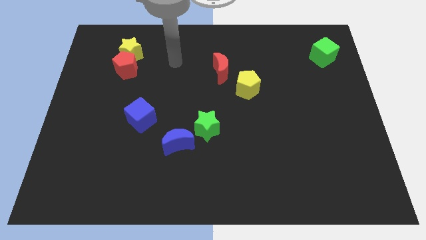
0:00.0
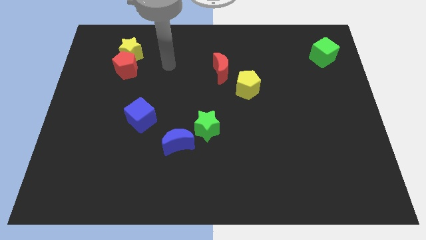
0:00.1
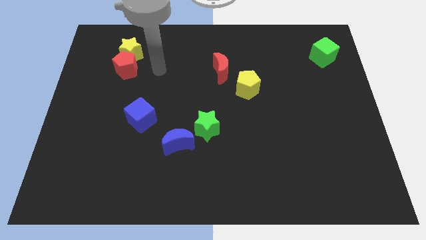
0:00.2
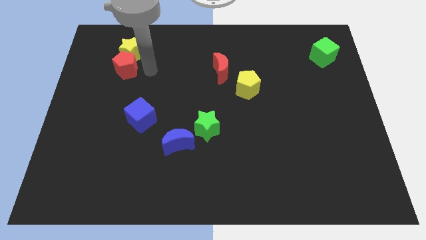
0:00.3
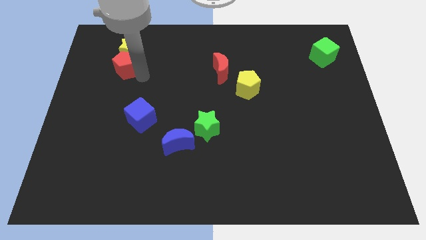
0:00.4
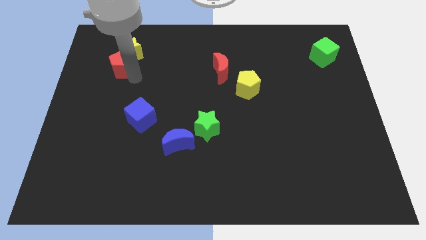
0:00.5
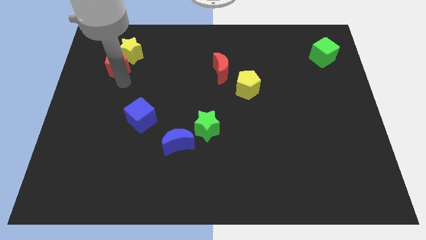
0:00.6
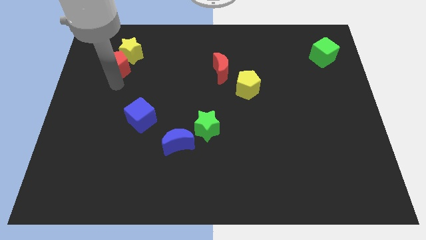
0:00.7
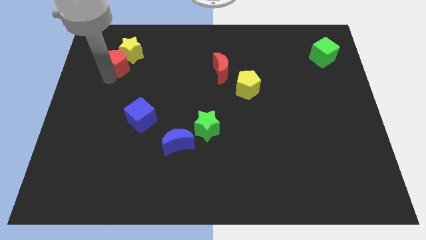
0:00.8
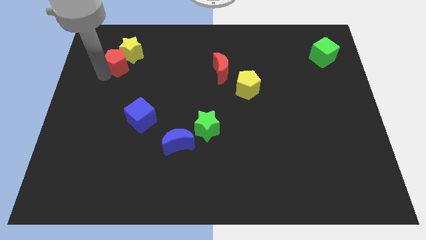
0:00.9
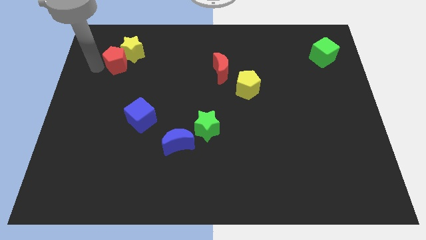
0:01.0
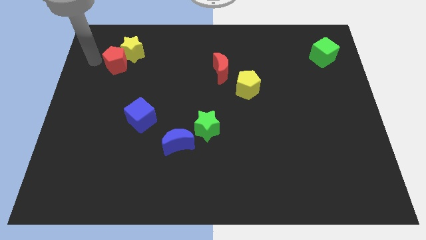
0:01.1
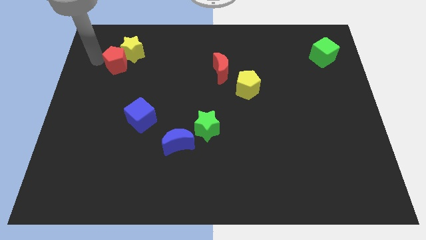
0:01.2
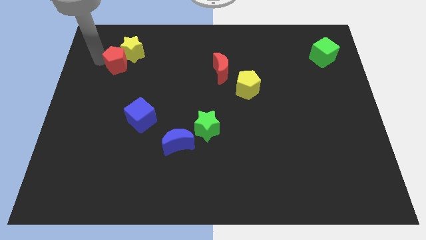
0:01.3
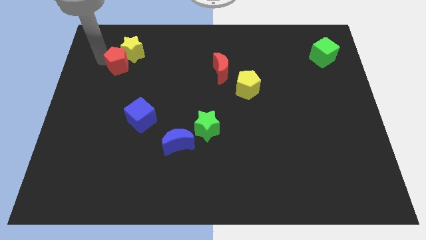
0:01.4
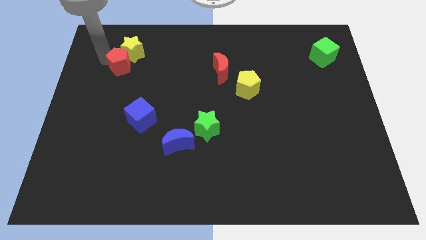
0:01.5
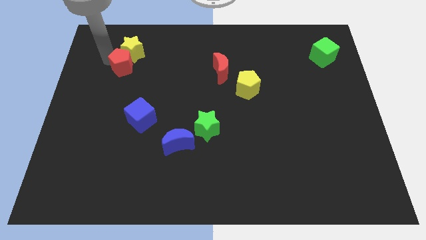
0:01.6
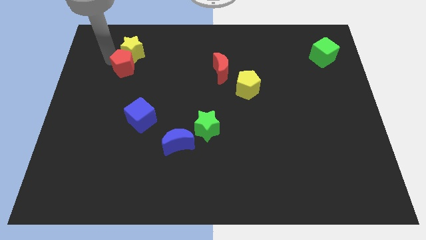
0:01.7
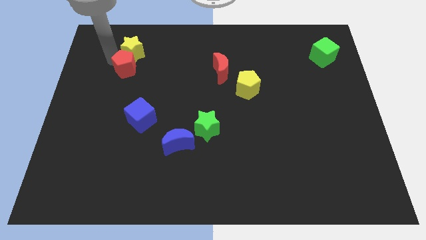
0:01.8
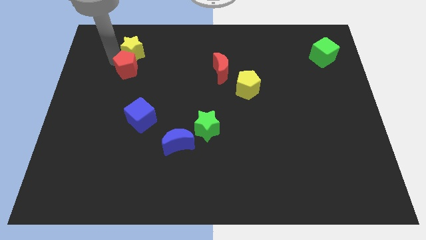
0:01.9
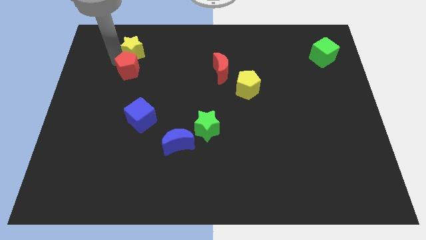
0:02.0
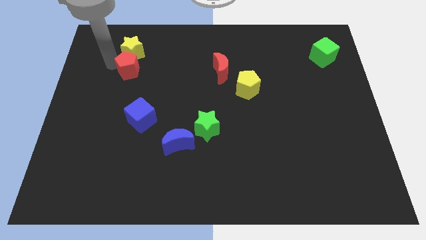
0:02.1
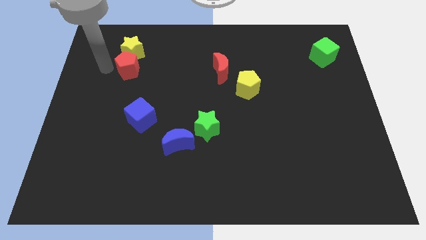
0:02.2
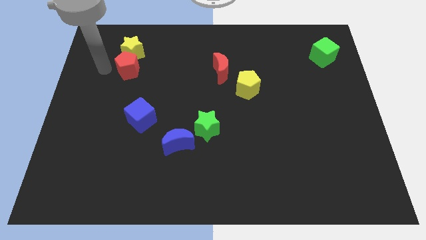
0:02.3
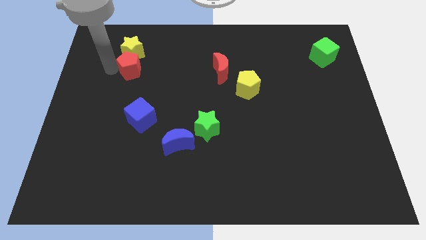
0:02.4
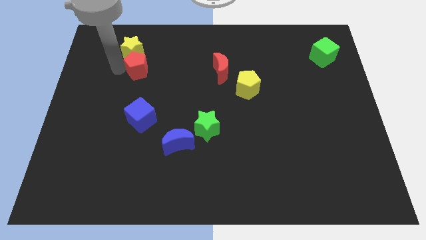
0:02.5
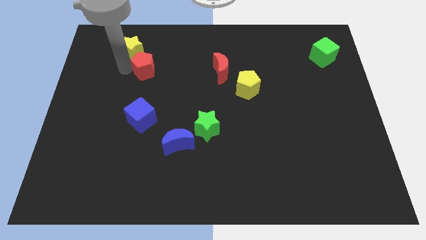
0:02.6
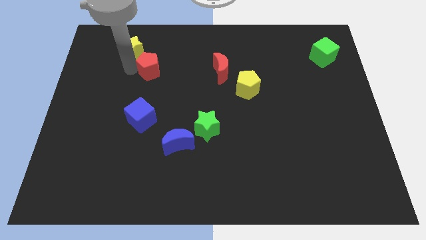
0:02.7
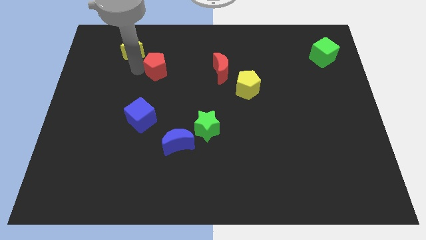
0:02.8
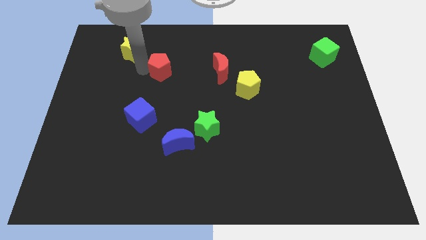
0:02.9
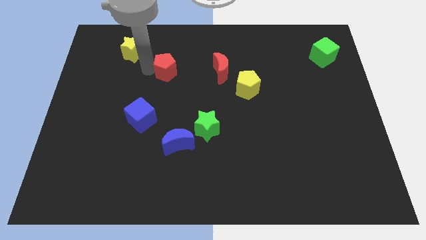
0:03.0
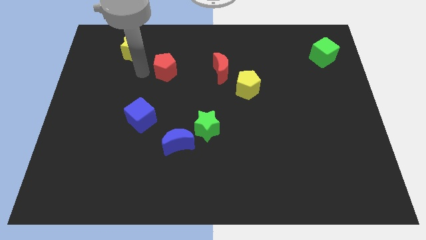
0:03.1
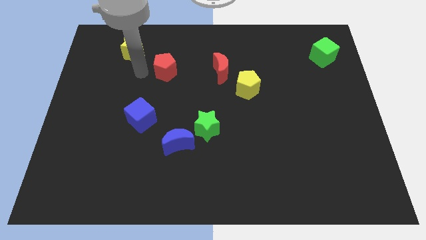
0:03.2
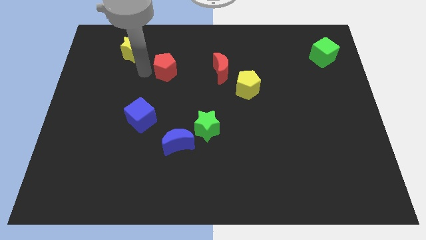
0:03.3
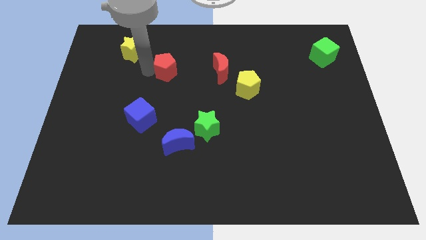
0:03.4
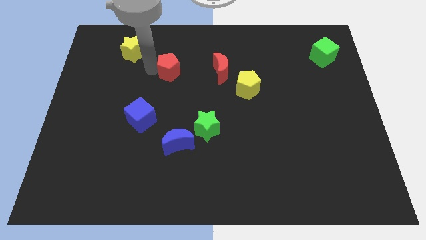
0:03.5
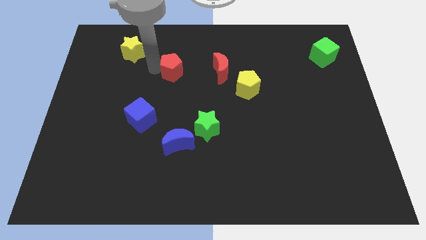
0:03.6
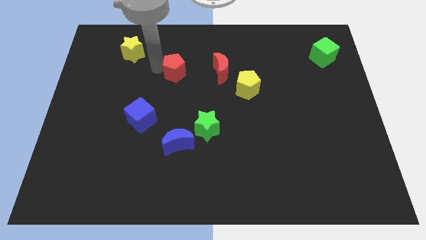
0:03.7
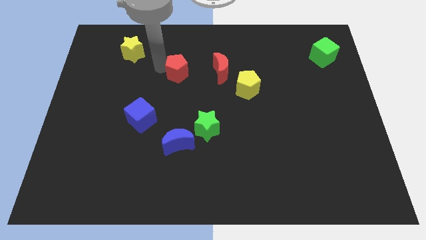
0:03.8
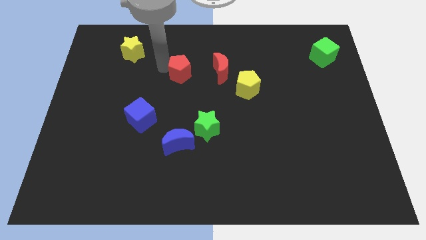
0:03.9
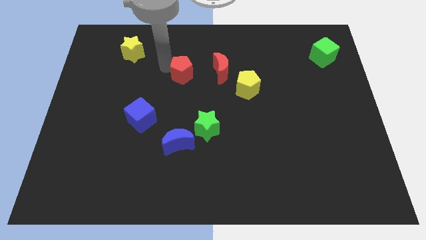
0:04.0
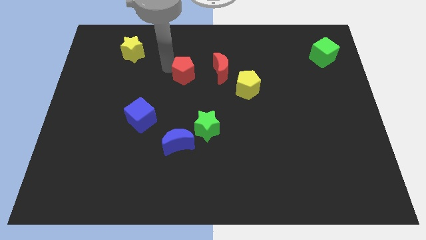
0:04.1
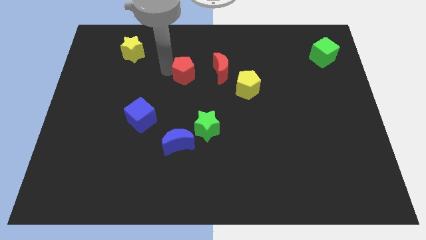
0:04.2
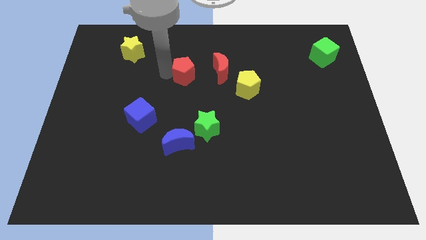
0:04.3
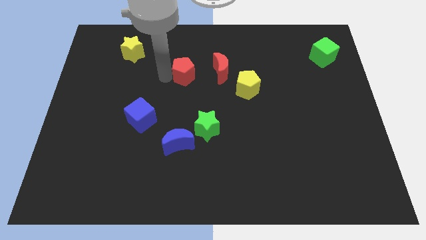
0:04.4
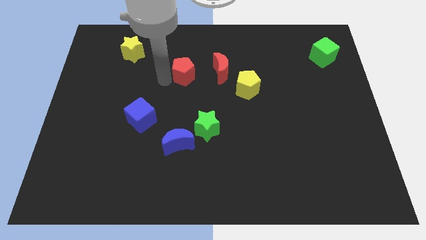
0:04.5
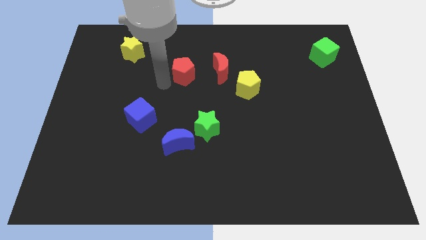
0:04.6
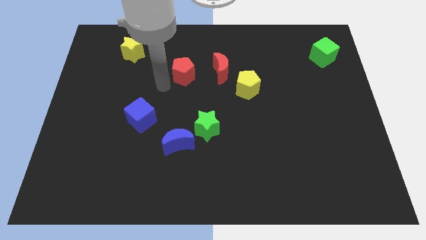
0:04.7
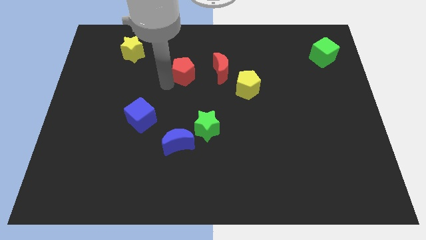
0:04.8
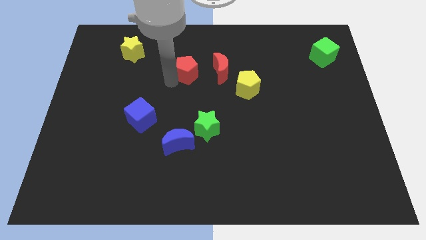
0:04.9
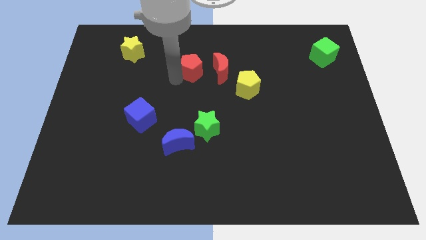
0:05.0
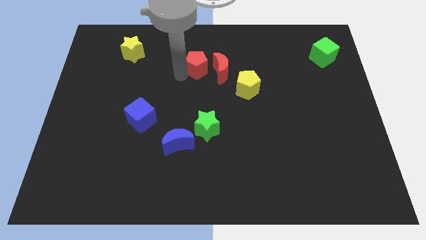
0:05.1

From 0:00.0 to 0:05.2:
move the red pentagon close to the red moon

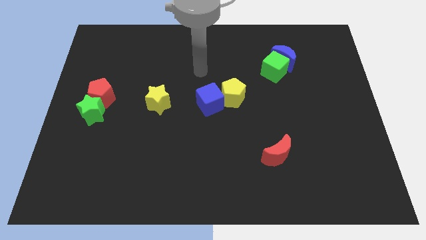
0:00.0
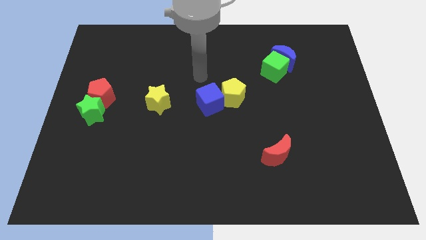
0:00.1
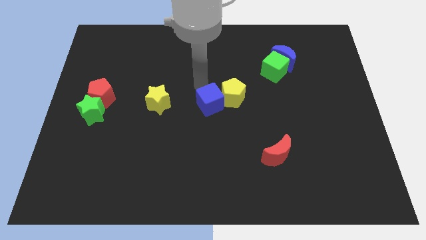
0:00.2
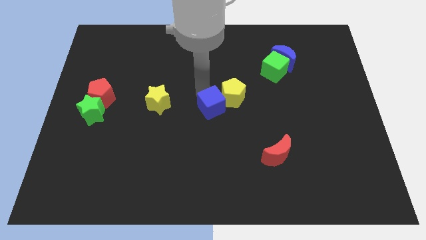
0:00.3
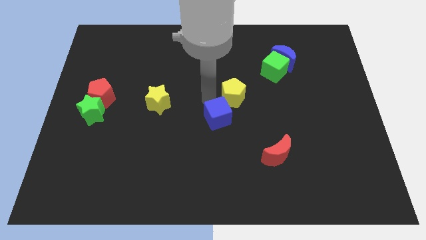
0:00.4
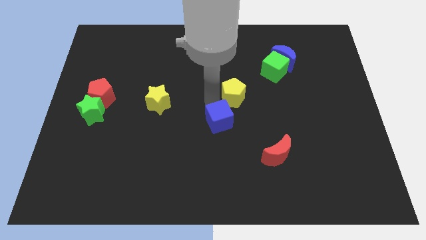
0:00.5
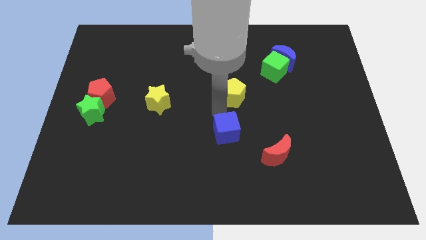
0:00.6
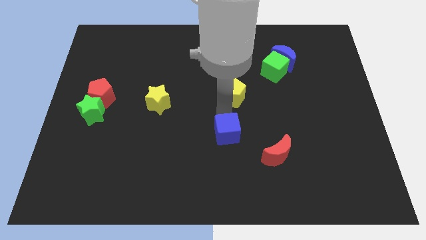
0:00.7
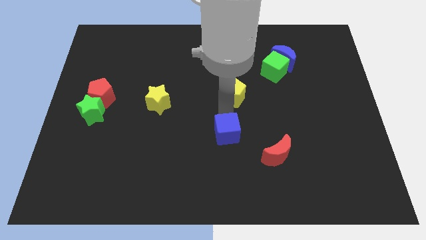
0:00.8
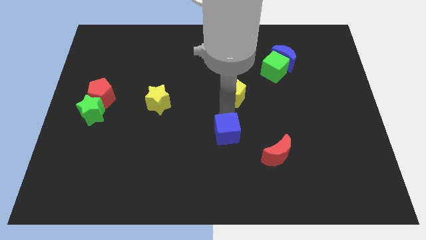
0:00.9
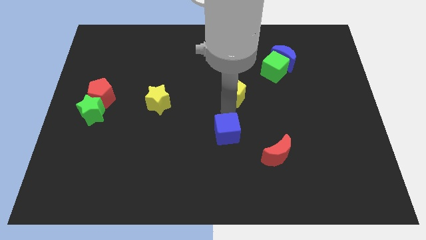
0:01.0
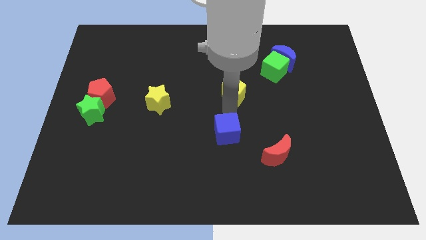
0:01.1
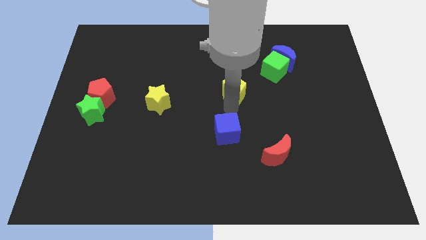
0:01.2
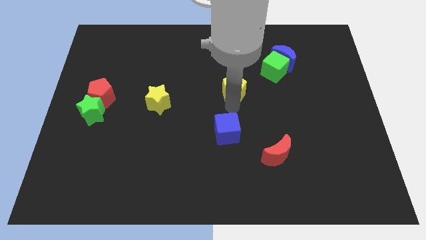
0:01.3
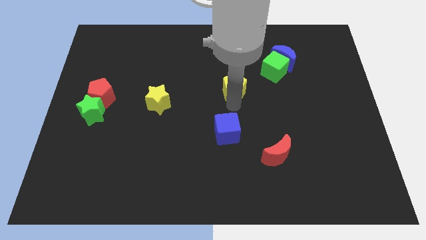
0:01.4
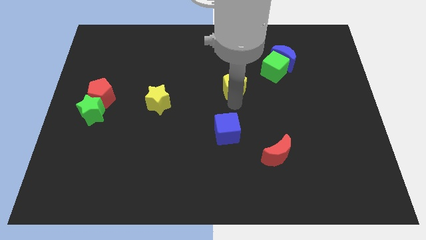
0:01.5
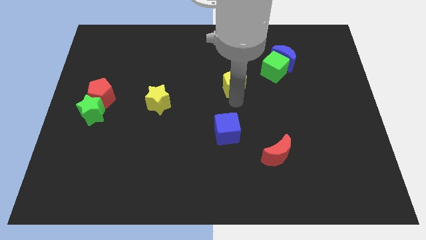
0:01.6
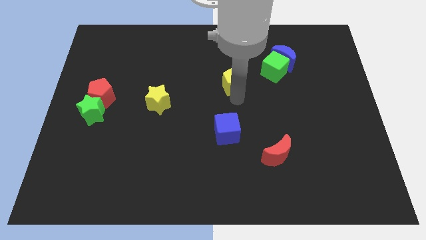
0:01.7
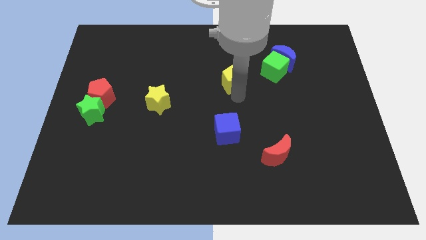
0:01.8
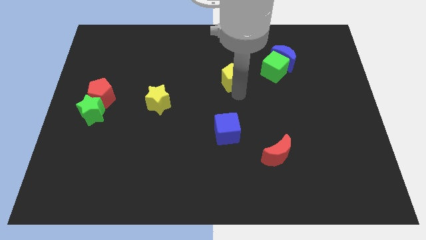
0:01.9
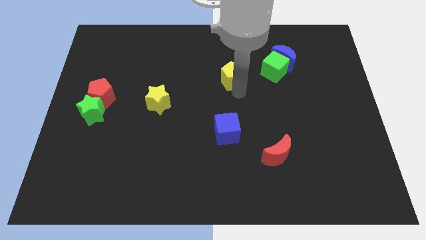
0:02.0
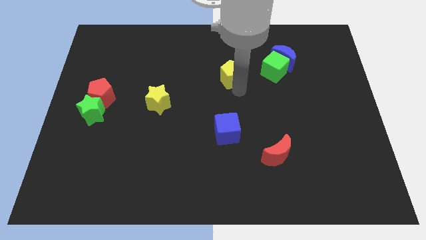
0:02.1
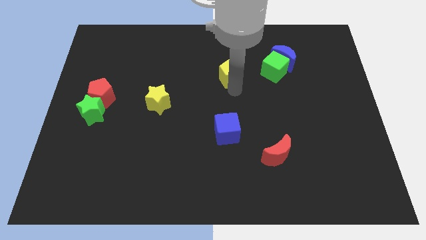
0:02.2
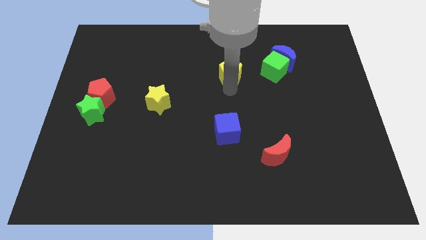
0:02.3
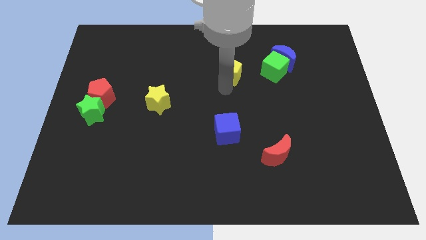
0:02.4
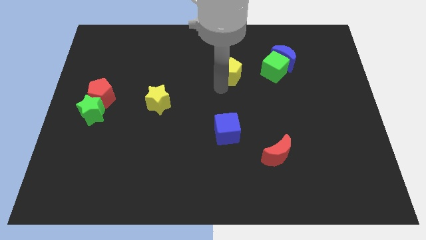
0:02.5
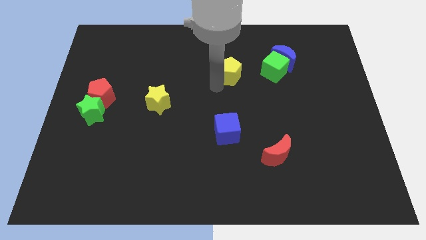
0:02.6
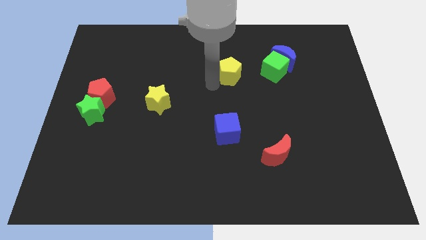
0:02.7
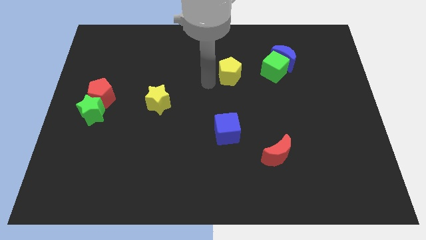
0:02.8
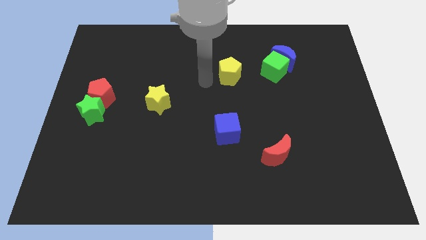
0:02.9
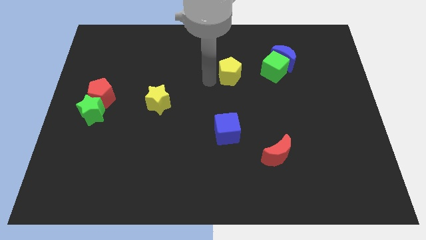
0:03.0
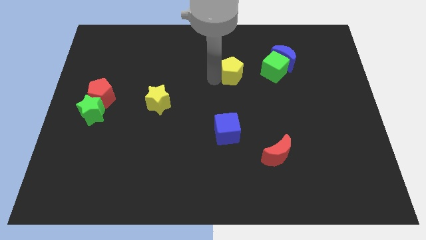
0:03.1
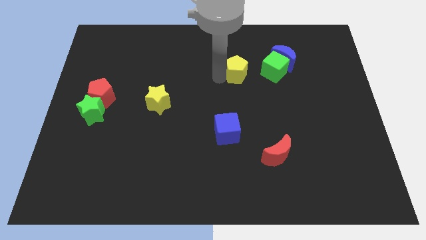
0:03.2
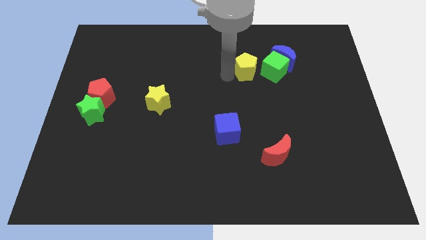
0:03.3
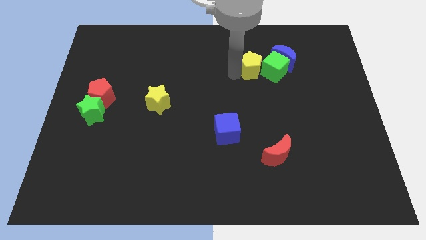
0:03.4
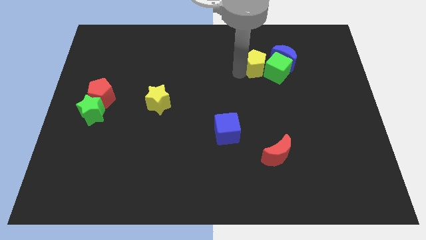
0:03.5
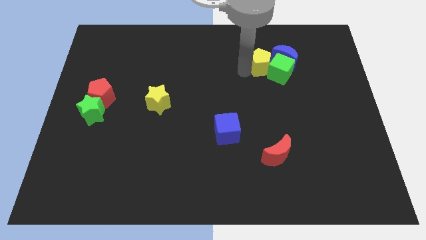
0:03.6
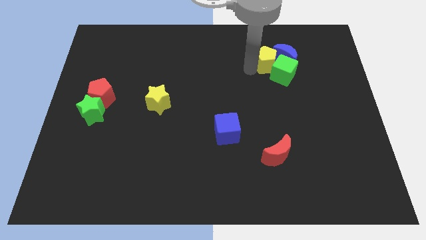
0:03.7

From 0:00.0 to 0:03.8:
move the yellow pentagon next to the blue moon
